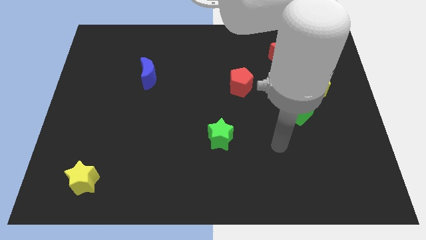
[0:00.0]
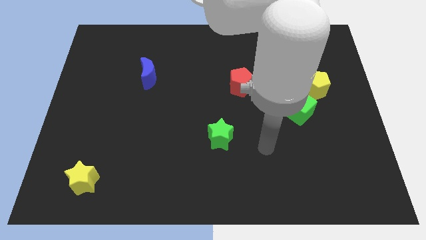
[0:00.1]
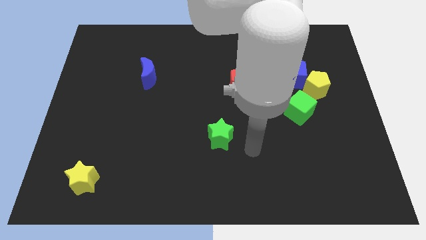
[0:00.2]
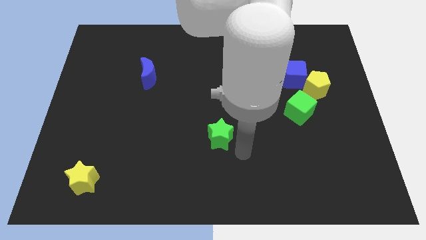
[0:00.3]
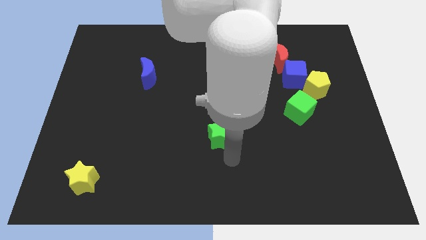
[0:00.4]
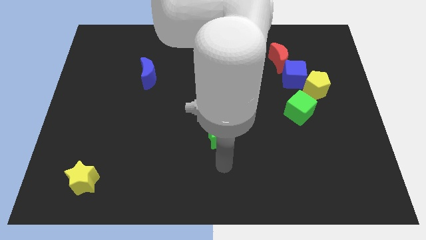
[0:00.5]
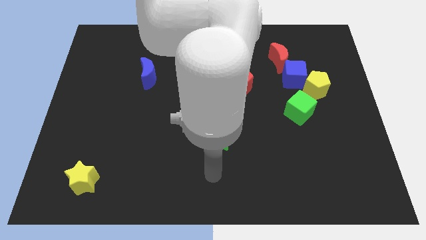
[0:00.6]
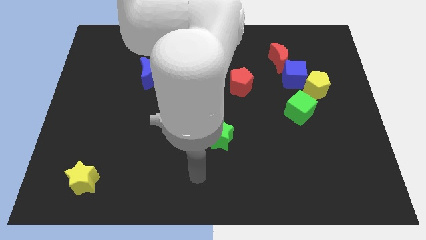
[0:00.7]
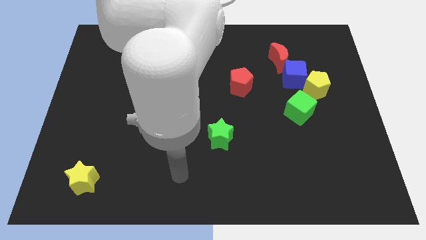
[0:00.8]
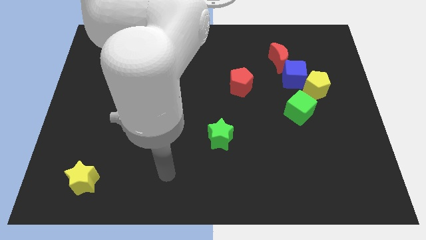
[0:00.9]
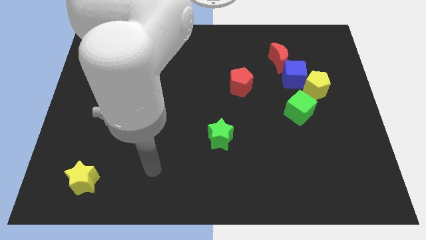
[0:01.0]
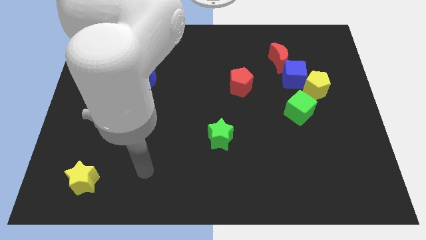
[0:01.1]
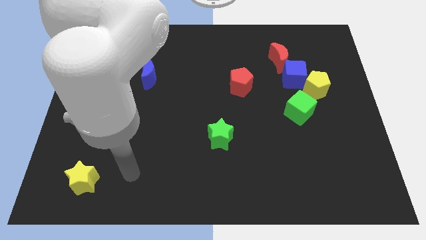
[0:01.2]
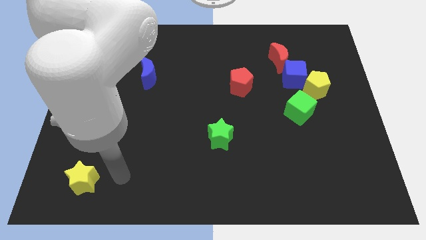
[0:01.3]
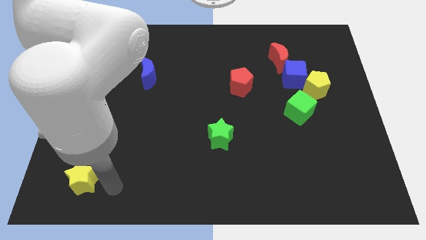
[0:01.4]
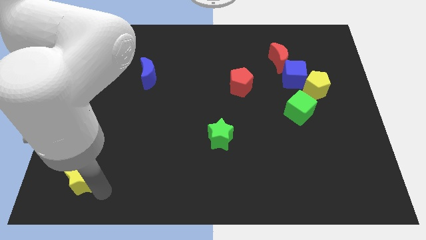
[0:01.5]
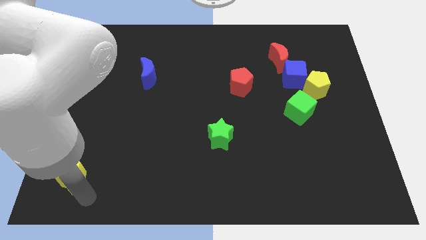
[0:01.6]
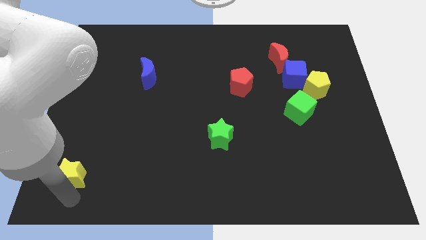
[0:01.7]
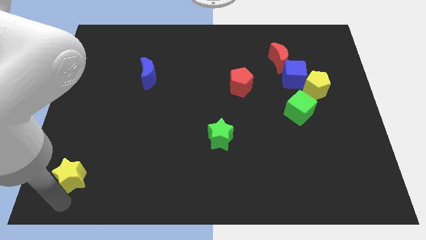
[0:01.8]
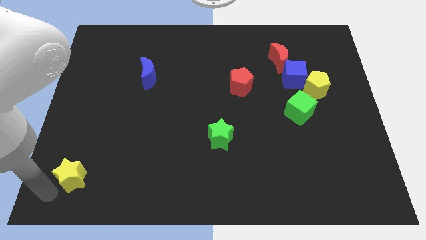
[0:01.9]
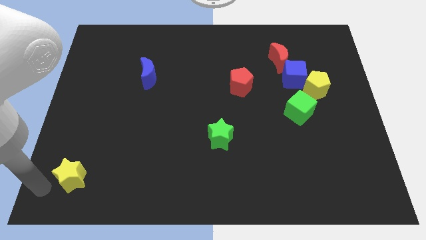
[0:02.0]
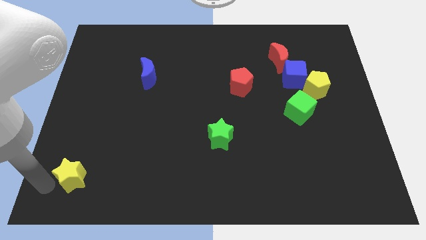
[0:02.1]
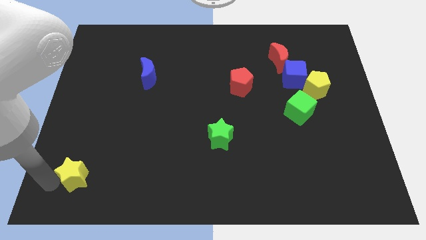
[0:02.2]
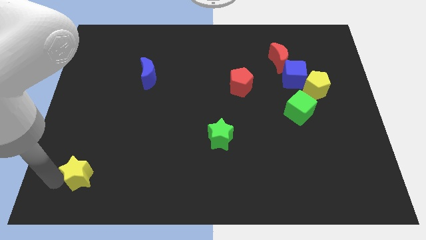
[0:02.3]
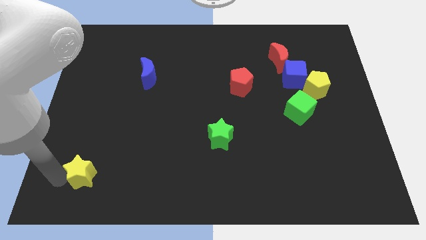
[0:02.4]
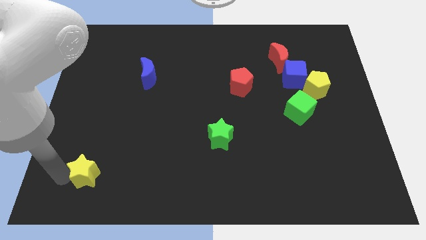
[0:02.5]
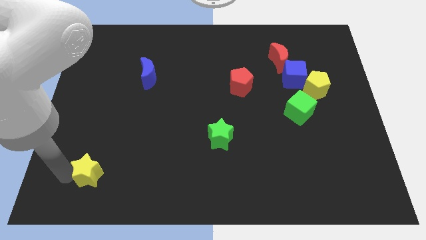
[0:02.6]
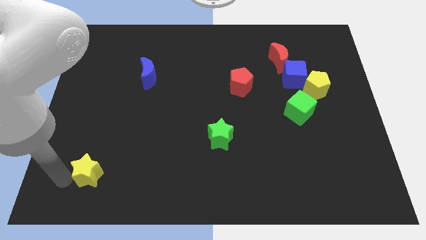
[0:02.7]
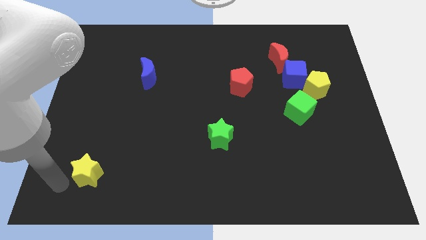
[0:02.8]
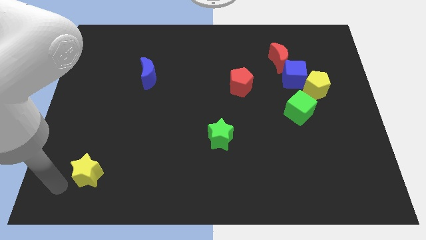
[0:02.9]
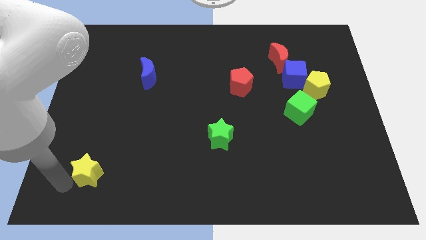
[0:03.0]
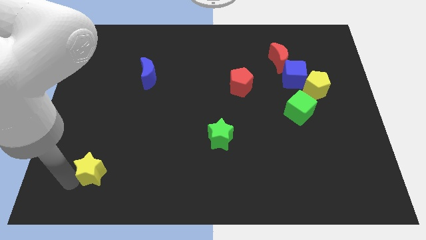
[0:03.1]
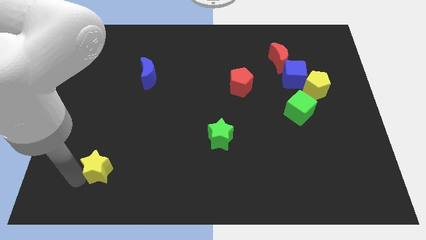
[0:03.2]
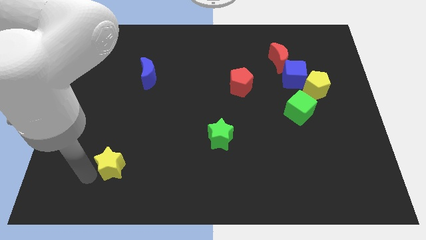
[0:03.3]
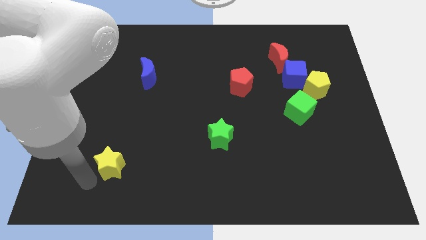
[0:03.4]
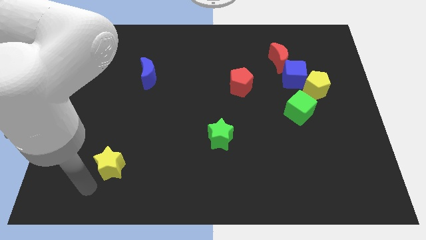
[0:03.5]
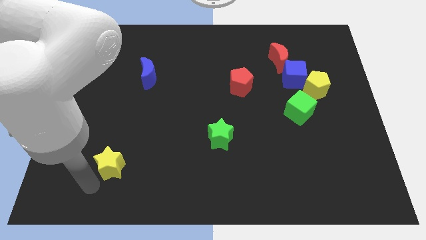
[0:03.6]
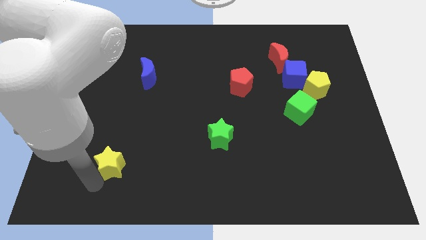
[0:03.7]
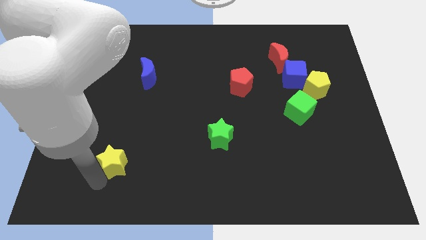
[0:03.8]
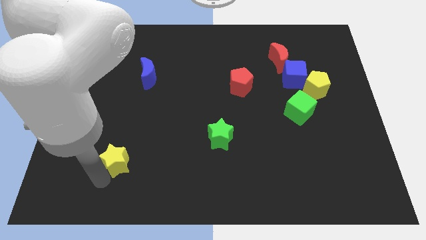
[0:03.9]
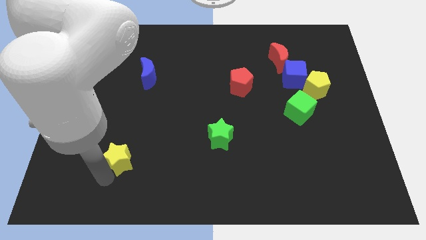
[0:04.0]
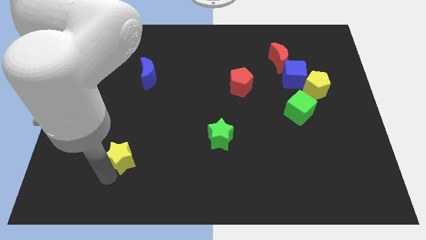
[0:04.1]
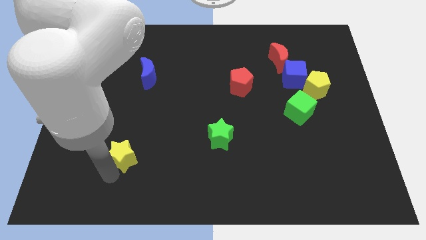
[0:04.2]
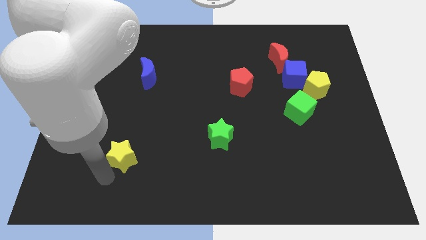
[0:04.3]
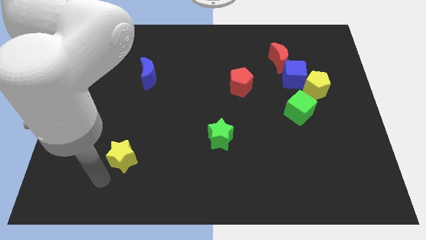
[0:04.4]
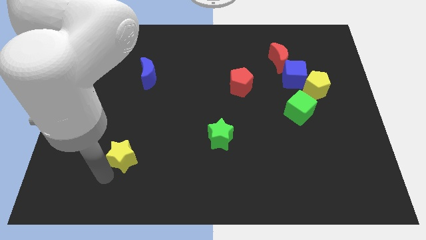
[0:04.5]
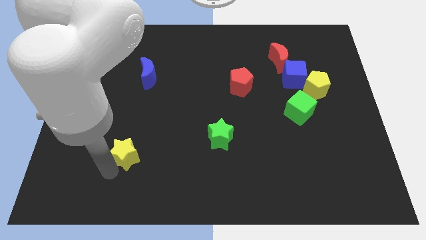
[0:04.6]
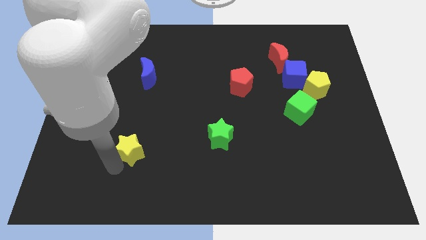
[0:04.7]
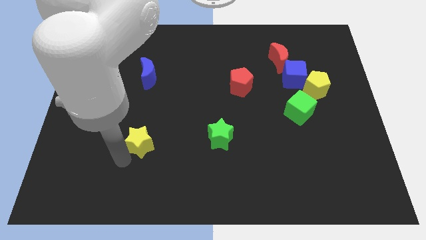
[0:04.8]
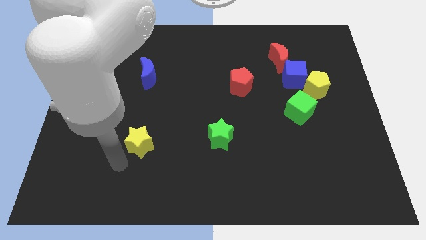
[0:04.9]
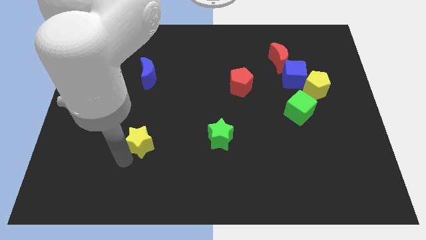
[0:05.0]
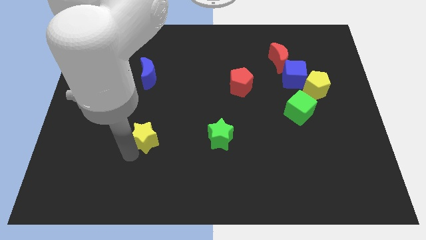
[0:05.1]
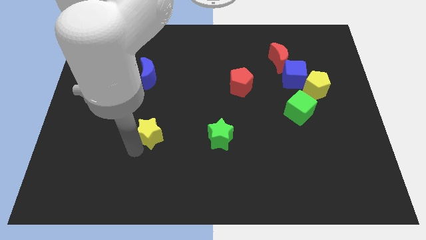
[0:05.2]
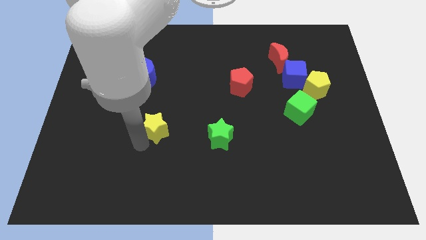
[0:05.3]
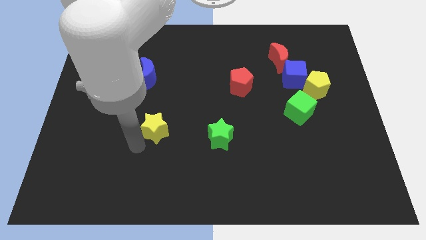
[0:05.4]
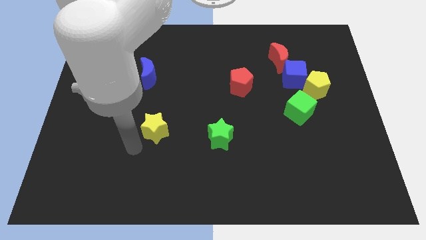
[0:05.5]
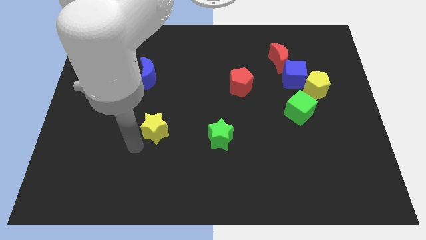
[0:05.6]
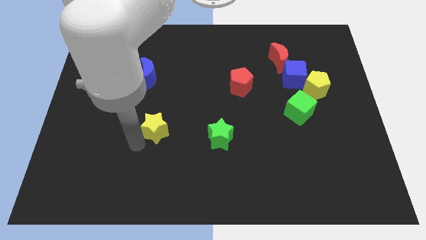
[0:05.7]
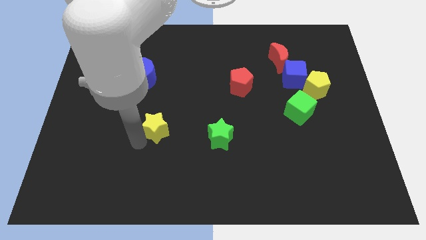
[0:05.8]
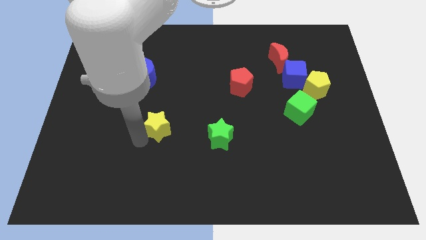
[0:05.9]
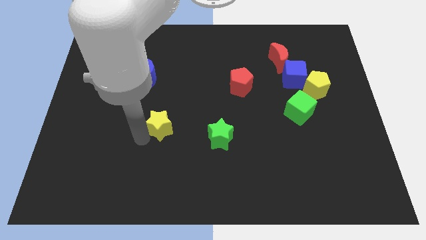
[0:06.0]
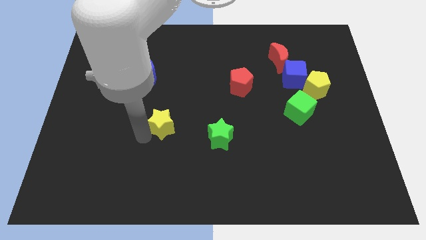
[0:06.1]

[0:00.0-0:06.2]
slide the yellow star upwards and right

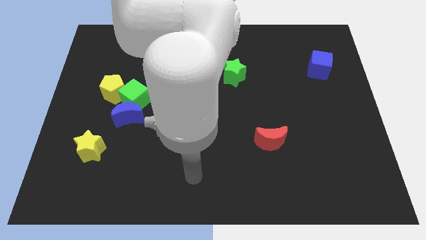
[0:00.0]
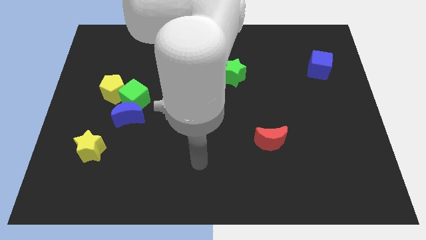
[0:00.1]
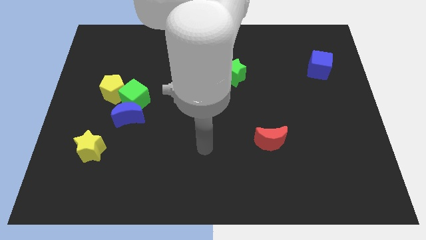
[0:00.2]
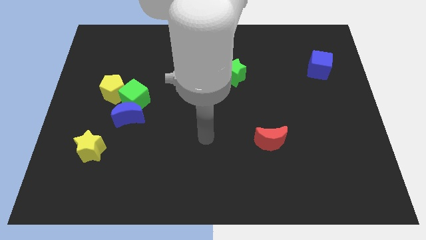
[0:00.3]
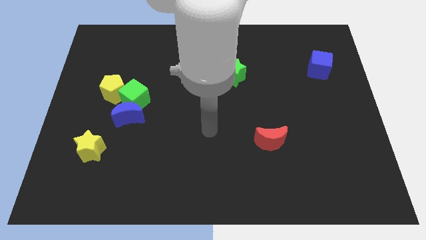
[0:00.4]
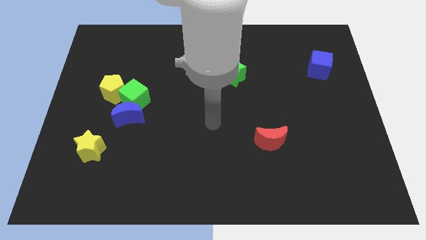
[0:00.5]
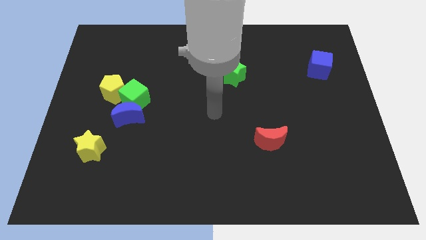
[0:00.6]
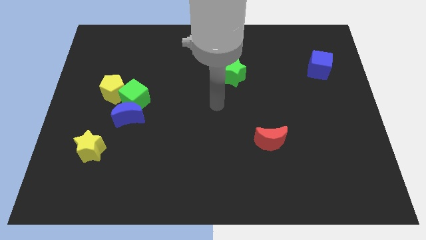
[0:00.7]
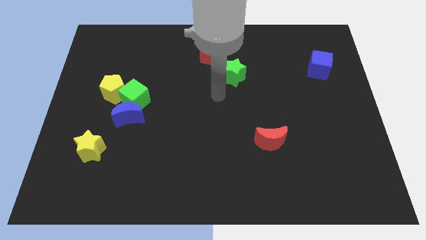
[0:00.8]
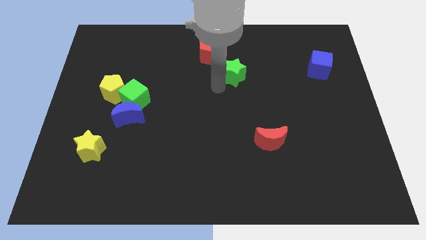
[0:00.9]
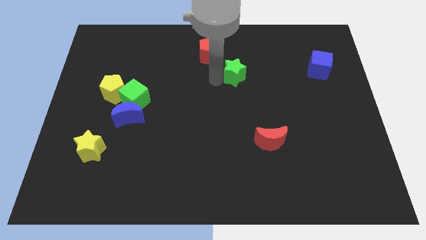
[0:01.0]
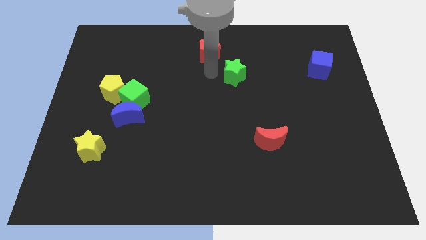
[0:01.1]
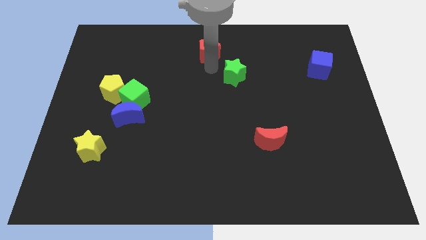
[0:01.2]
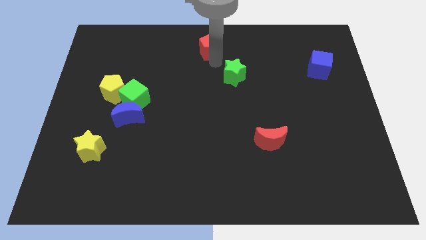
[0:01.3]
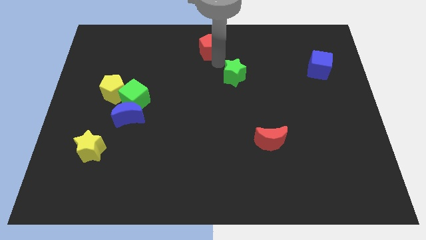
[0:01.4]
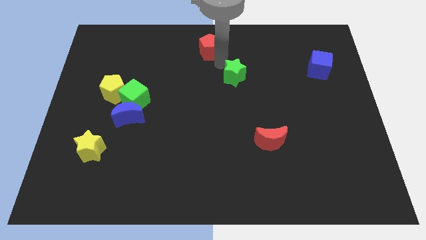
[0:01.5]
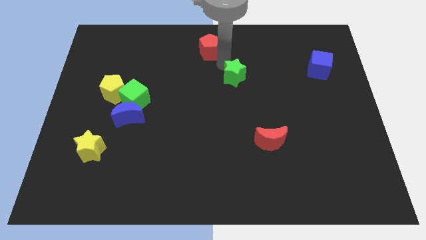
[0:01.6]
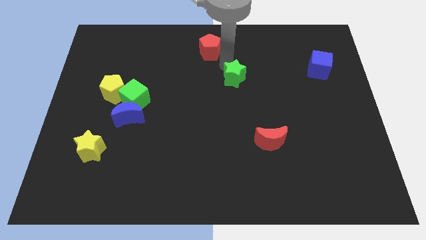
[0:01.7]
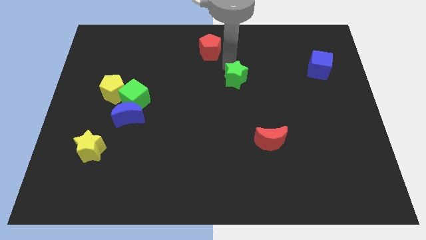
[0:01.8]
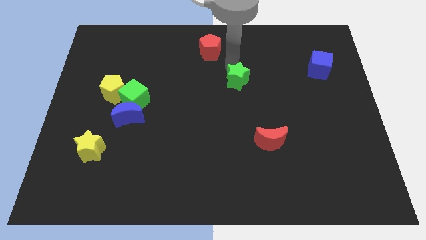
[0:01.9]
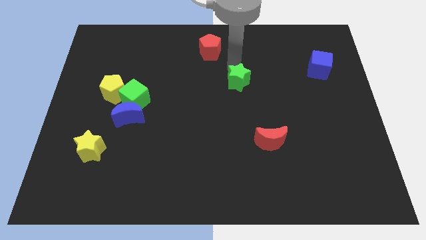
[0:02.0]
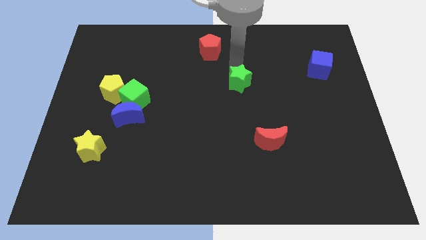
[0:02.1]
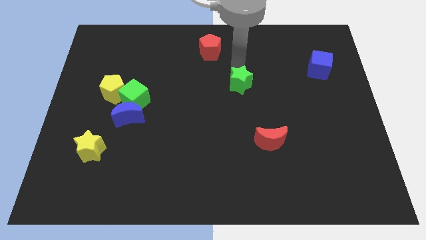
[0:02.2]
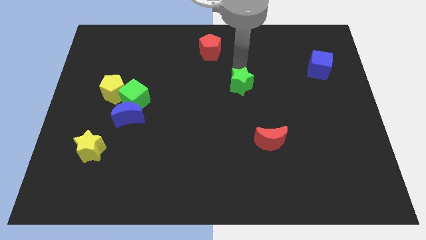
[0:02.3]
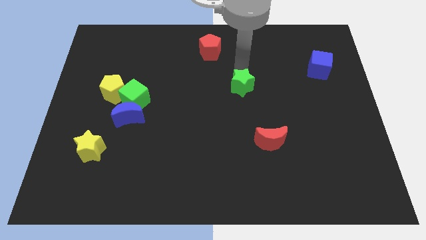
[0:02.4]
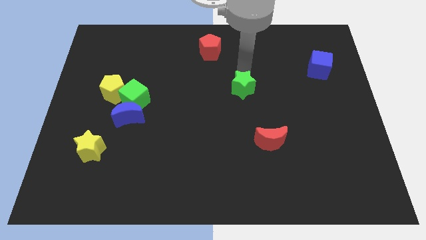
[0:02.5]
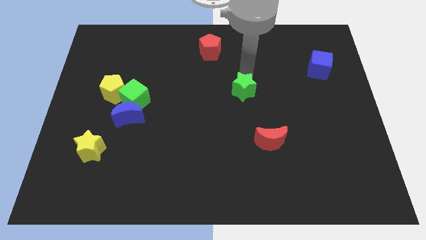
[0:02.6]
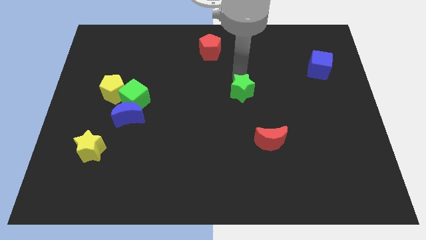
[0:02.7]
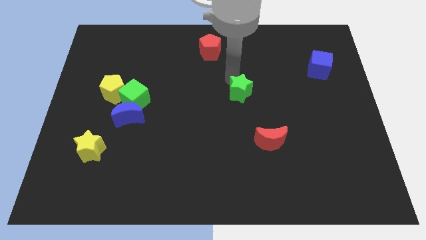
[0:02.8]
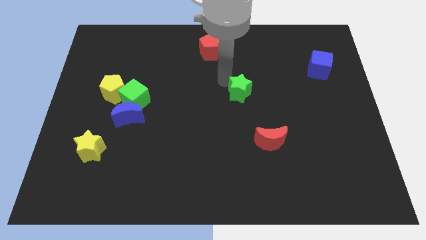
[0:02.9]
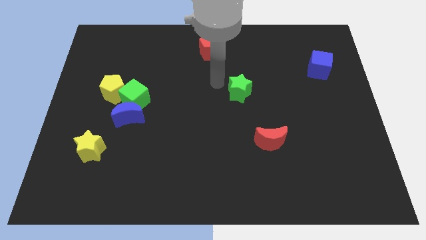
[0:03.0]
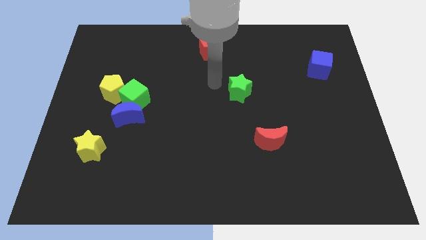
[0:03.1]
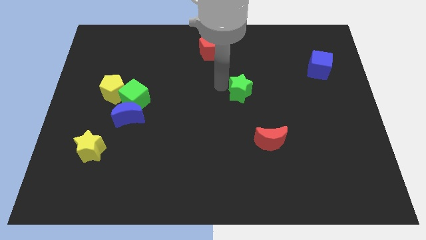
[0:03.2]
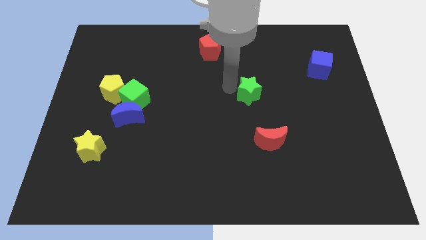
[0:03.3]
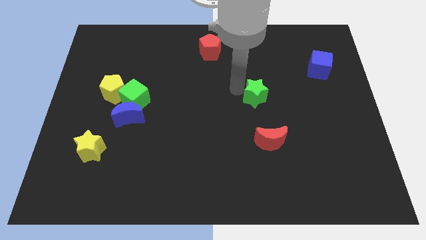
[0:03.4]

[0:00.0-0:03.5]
slightly push the green star diagonally down and to the right
